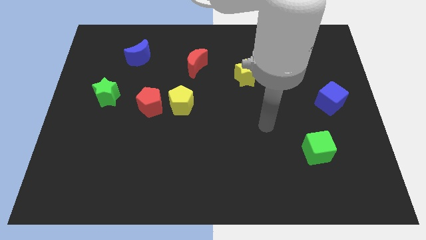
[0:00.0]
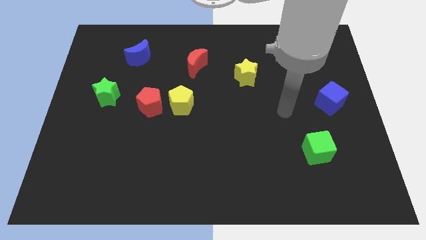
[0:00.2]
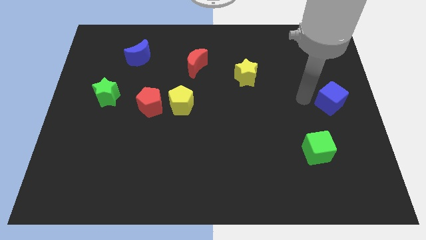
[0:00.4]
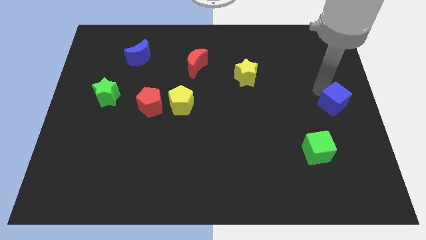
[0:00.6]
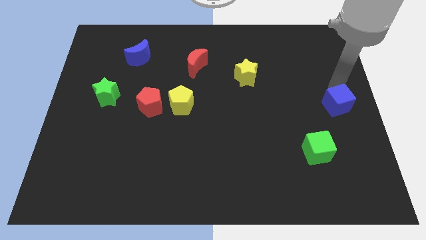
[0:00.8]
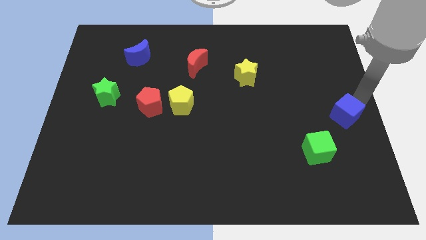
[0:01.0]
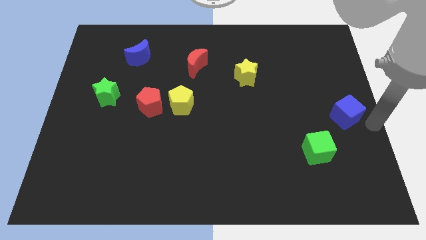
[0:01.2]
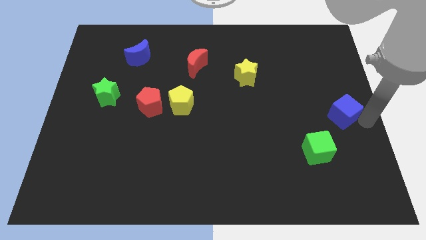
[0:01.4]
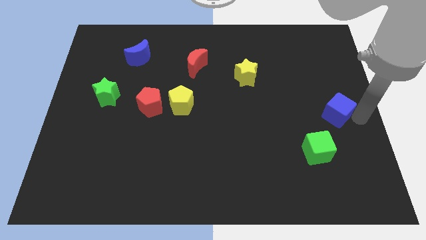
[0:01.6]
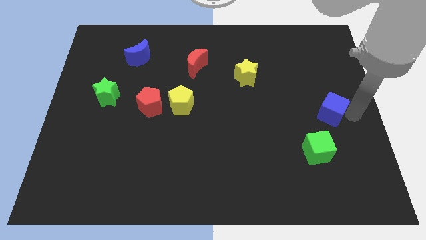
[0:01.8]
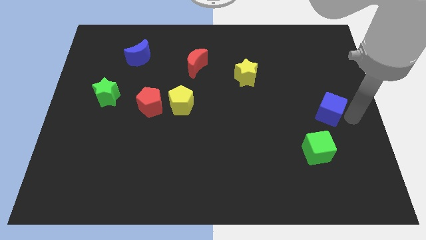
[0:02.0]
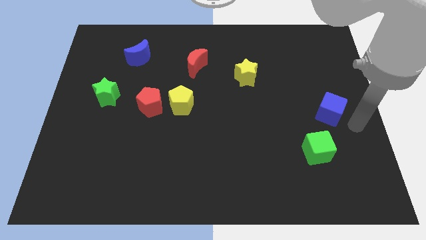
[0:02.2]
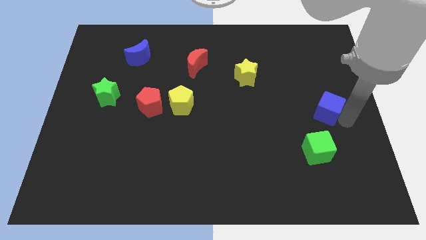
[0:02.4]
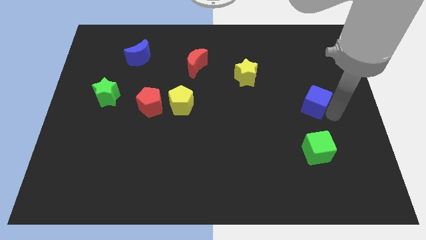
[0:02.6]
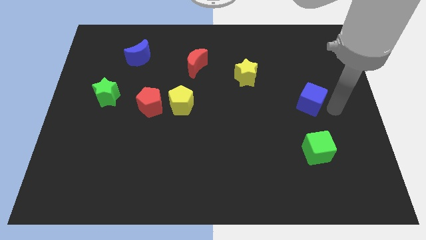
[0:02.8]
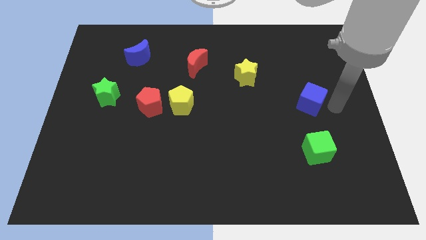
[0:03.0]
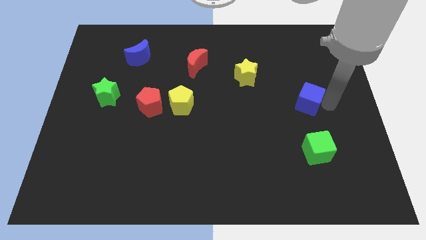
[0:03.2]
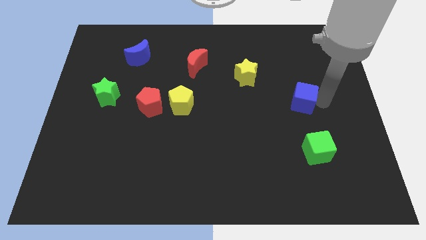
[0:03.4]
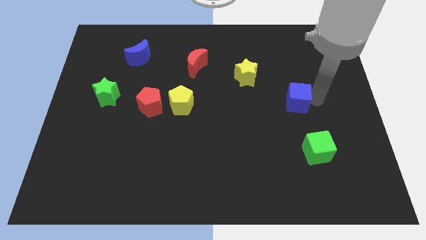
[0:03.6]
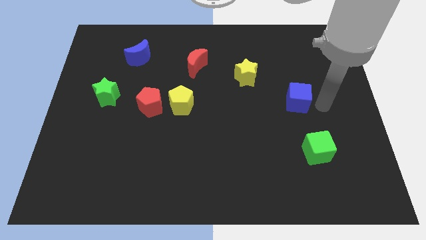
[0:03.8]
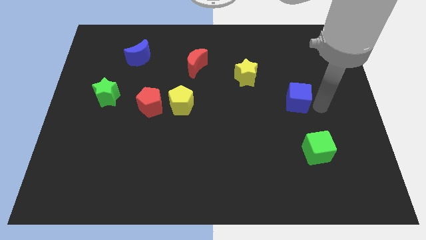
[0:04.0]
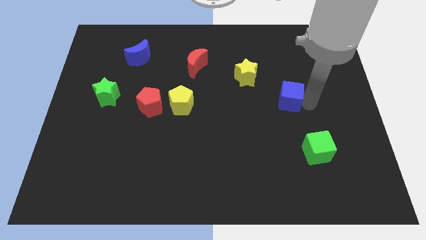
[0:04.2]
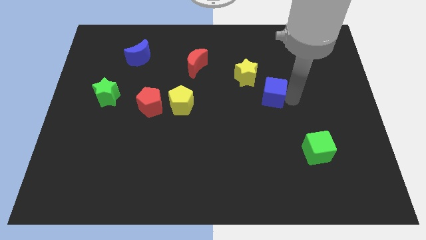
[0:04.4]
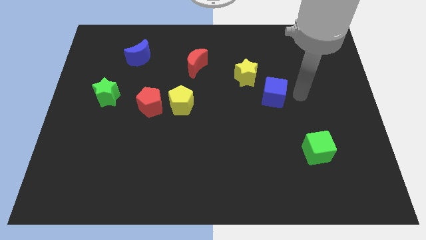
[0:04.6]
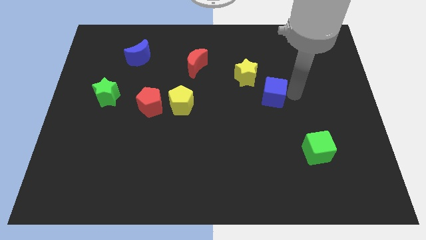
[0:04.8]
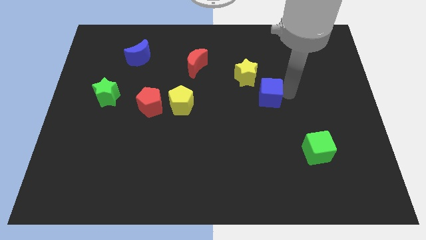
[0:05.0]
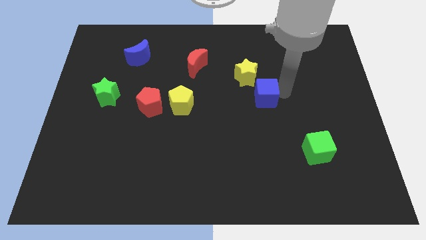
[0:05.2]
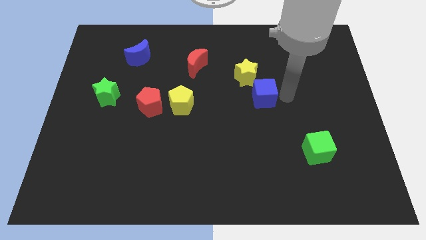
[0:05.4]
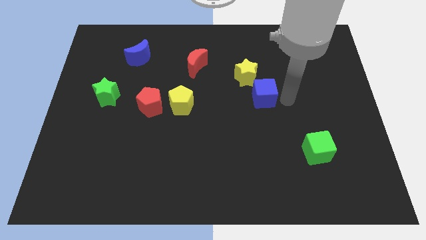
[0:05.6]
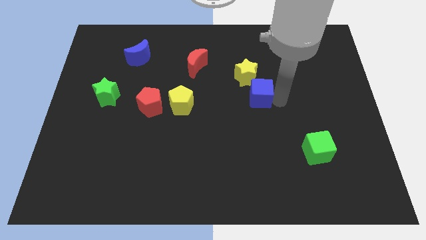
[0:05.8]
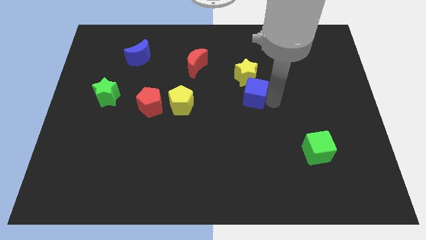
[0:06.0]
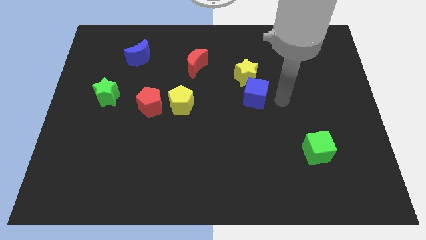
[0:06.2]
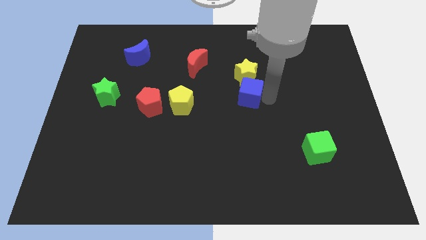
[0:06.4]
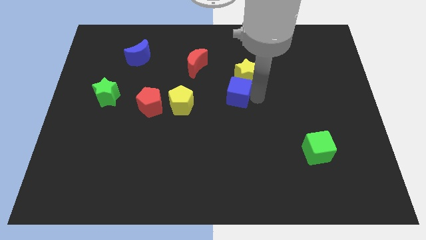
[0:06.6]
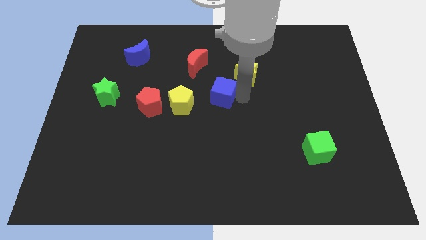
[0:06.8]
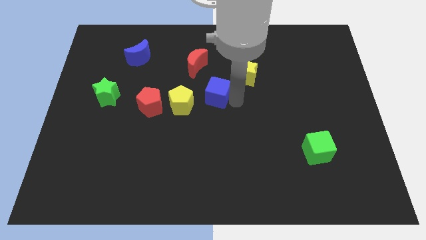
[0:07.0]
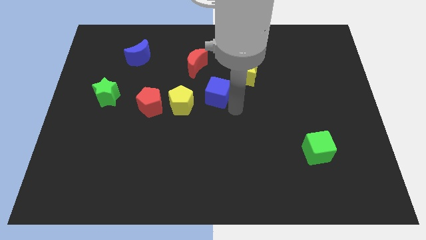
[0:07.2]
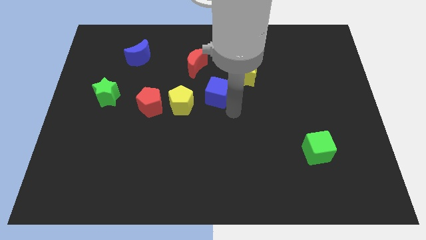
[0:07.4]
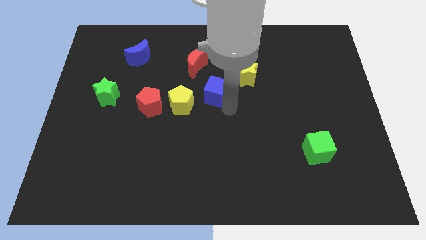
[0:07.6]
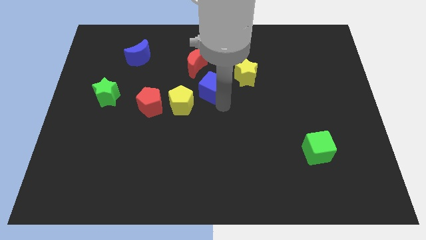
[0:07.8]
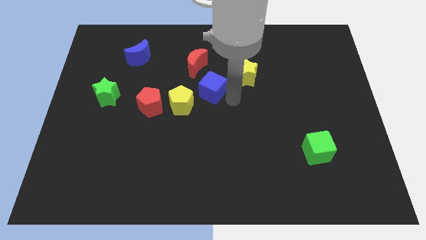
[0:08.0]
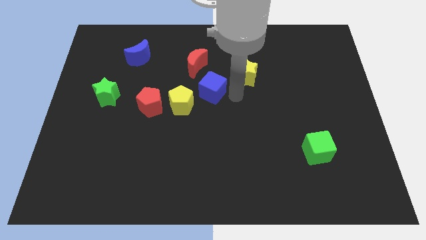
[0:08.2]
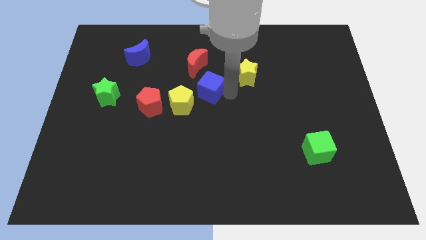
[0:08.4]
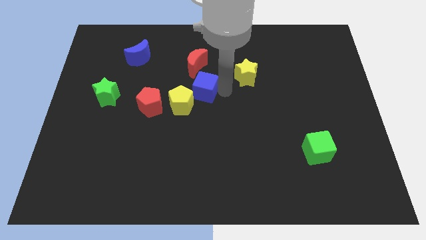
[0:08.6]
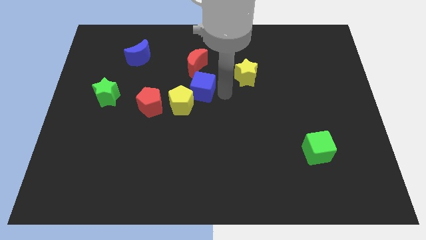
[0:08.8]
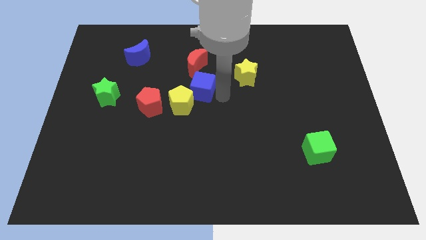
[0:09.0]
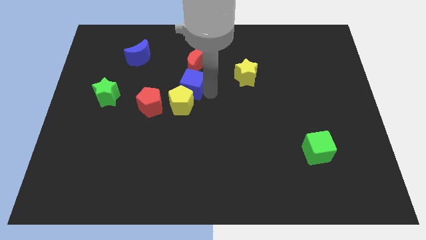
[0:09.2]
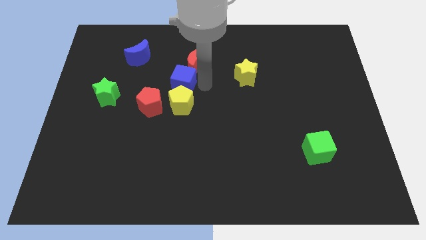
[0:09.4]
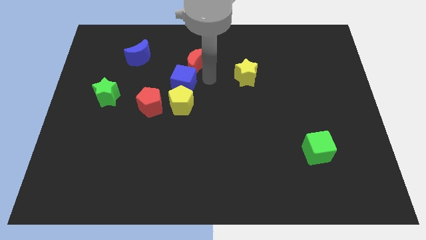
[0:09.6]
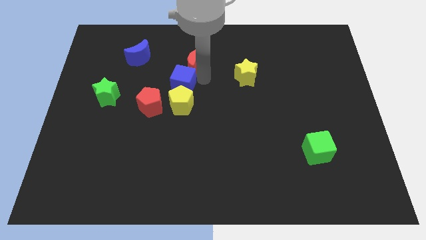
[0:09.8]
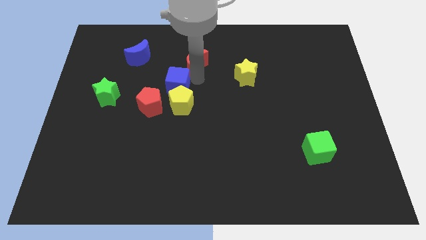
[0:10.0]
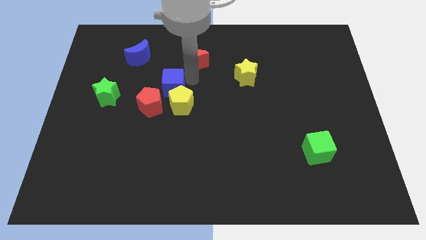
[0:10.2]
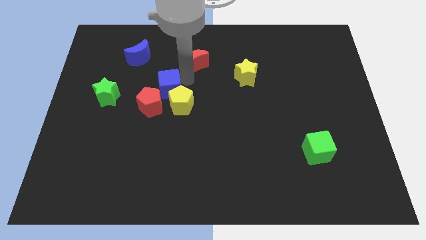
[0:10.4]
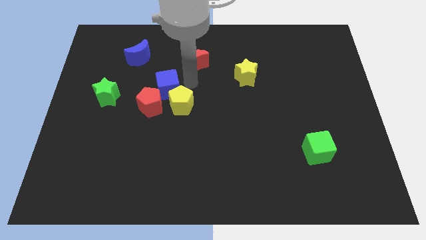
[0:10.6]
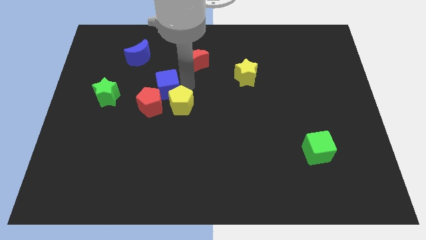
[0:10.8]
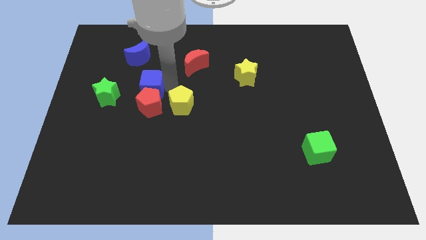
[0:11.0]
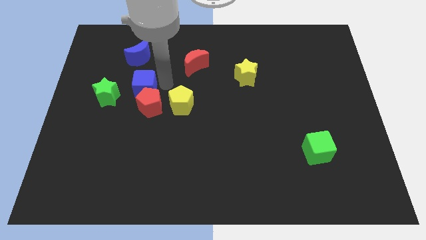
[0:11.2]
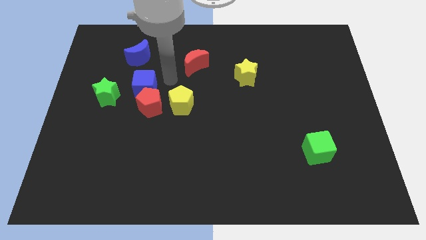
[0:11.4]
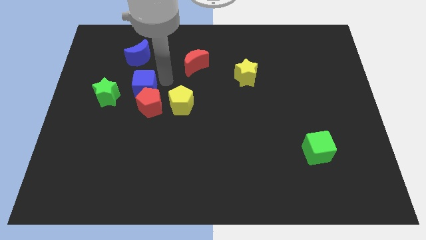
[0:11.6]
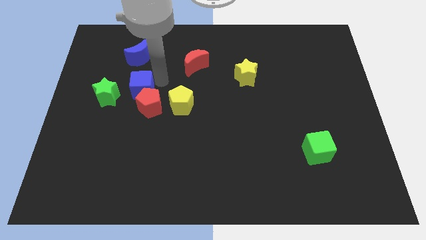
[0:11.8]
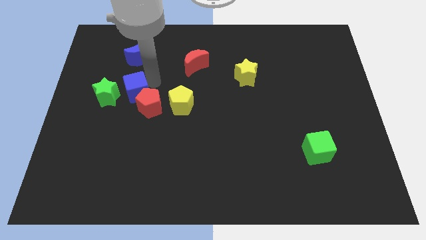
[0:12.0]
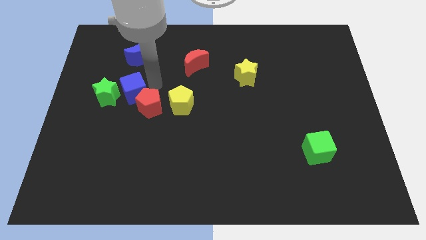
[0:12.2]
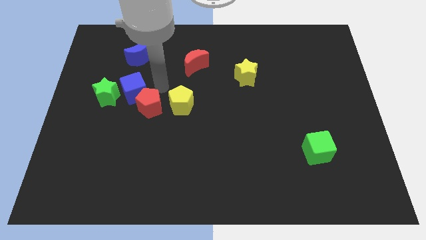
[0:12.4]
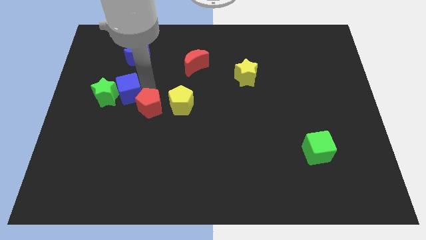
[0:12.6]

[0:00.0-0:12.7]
put the blue cube to the green star

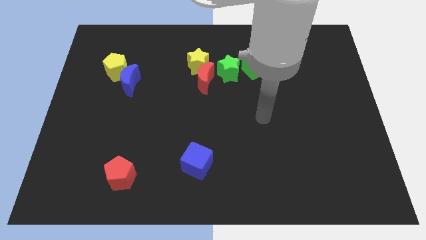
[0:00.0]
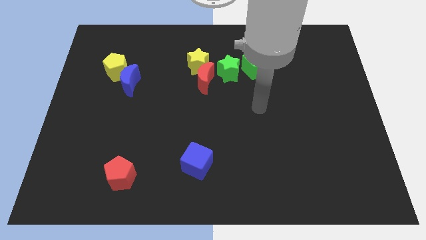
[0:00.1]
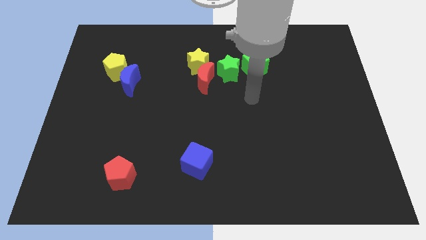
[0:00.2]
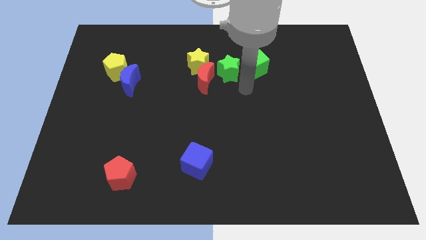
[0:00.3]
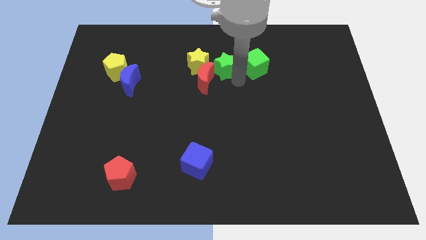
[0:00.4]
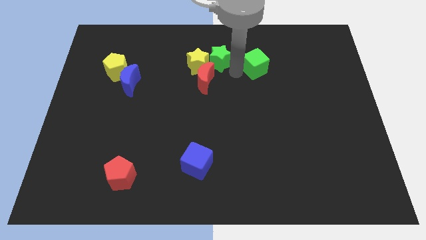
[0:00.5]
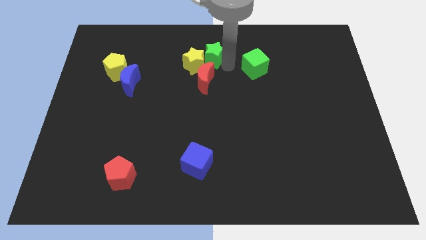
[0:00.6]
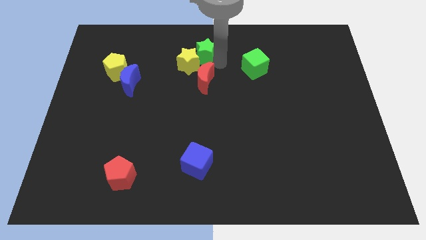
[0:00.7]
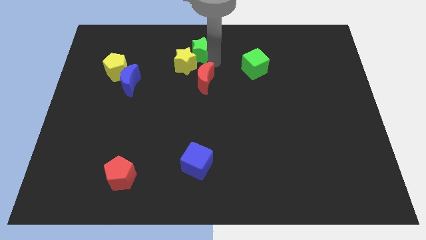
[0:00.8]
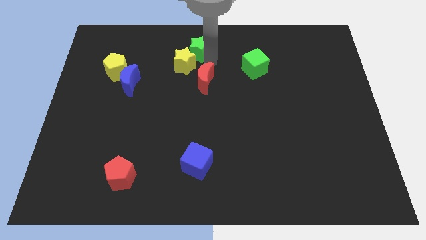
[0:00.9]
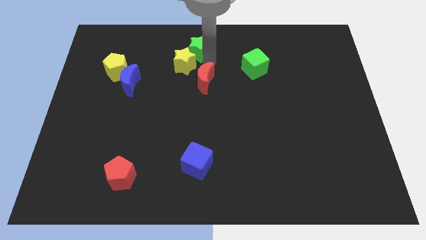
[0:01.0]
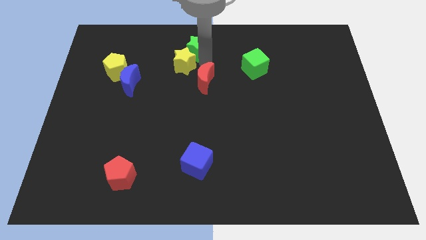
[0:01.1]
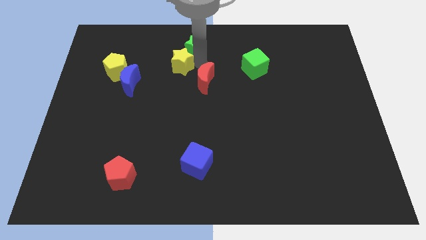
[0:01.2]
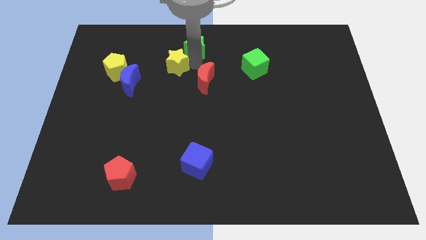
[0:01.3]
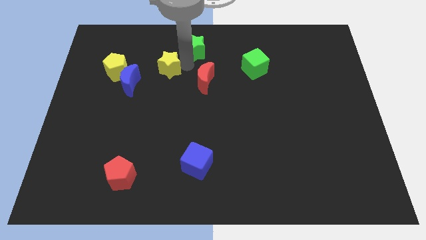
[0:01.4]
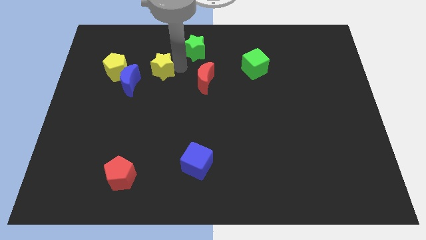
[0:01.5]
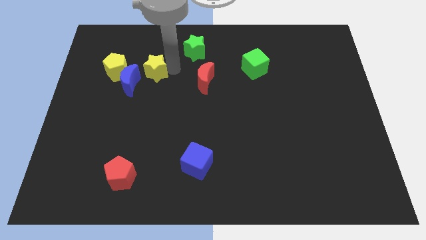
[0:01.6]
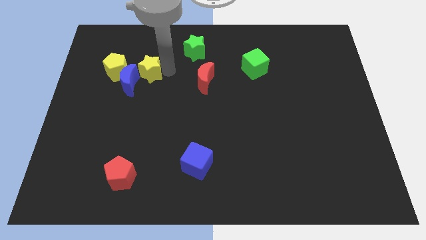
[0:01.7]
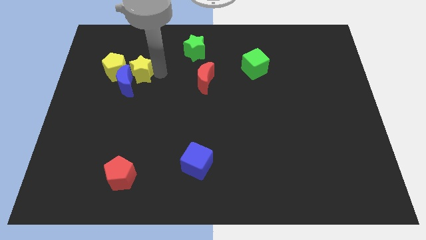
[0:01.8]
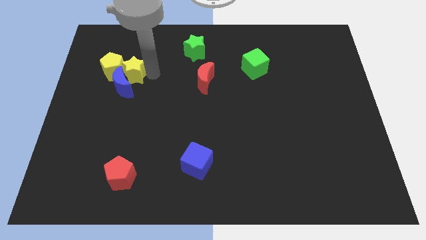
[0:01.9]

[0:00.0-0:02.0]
push the yellow star towards the yellow pentagon
